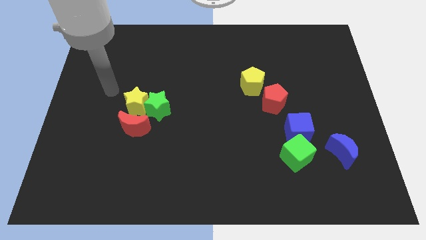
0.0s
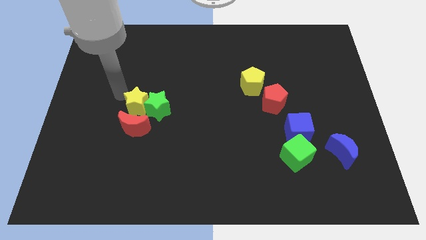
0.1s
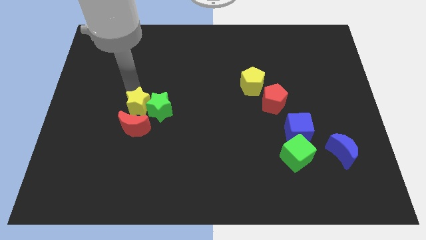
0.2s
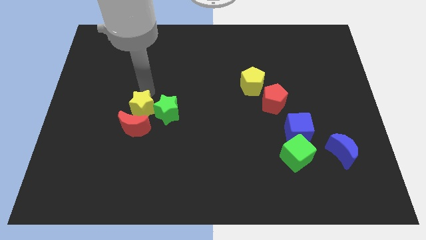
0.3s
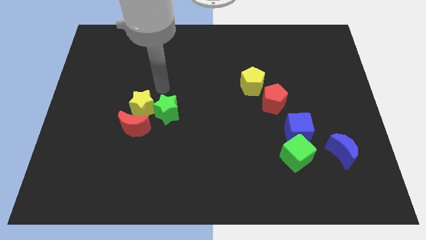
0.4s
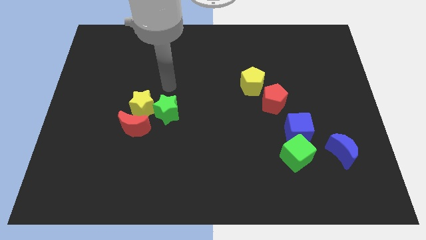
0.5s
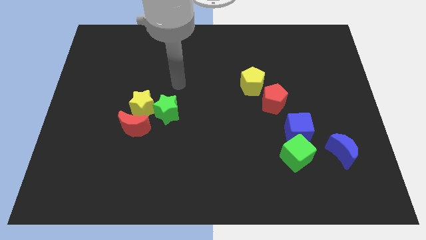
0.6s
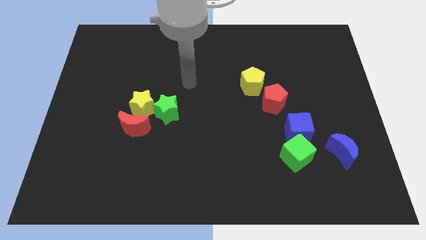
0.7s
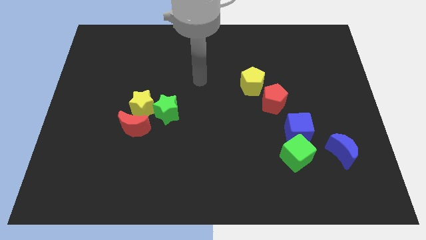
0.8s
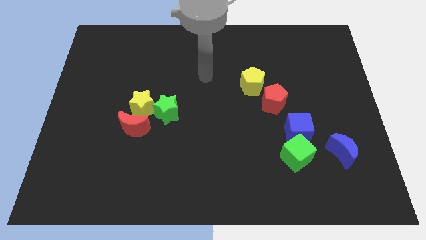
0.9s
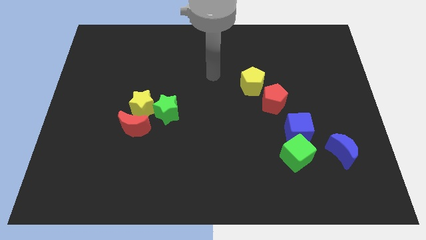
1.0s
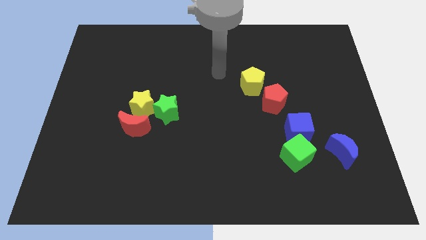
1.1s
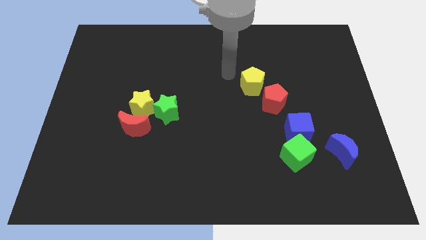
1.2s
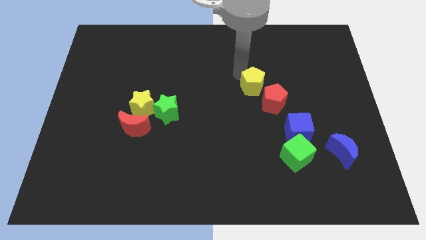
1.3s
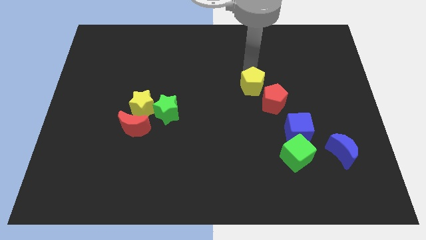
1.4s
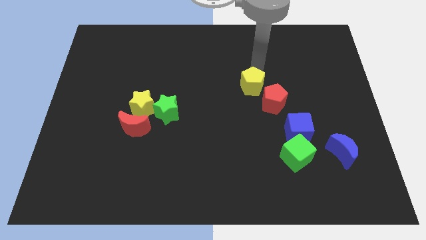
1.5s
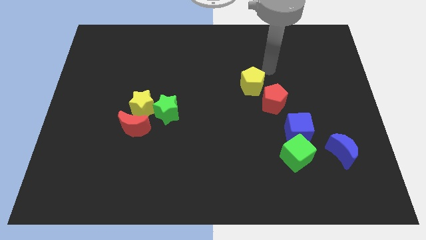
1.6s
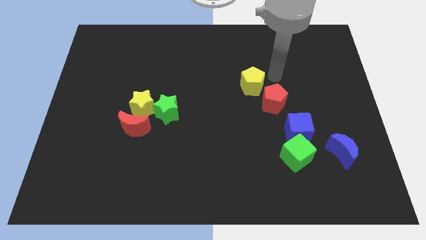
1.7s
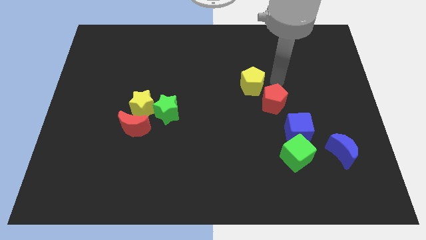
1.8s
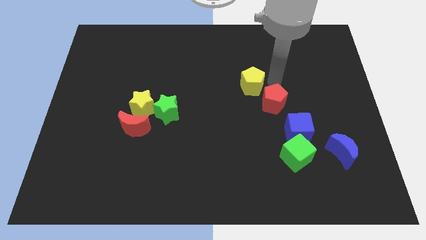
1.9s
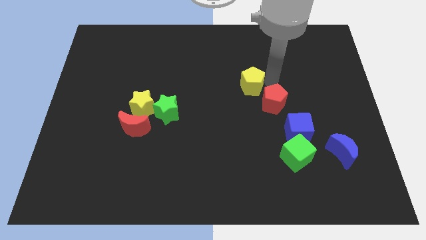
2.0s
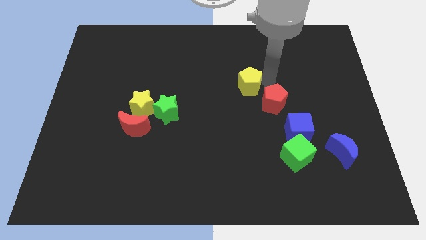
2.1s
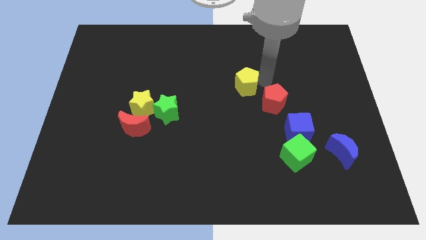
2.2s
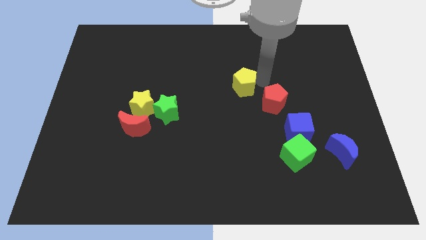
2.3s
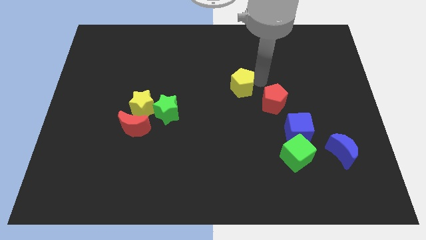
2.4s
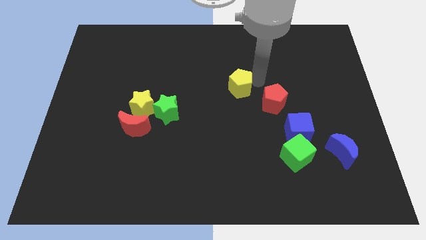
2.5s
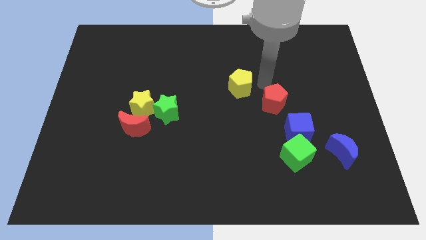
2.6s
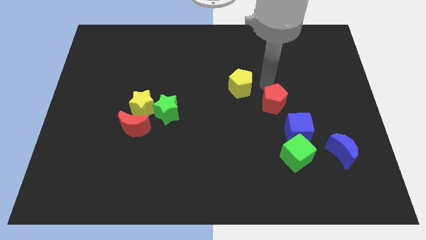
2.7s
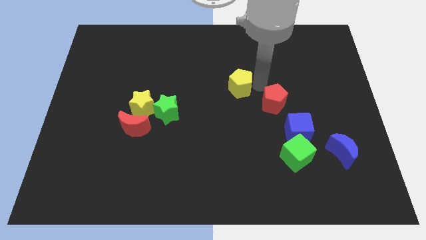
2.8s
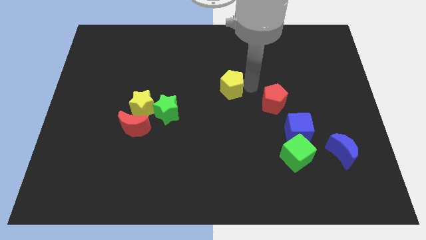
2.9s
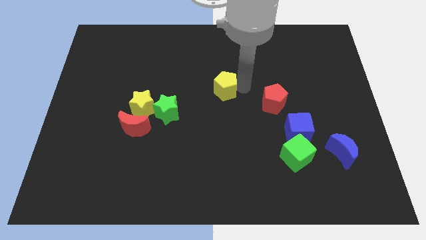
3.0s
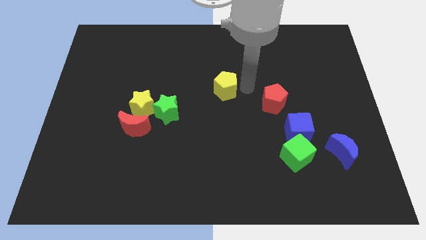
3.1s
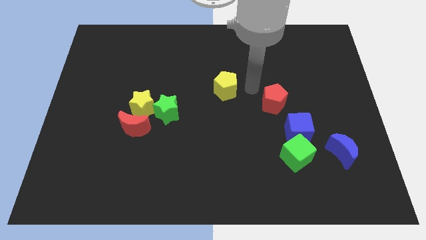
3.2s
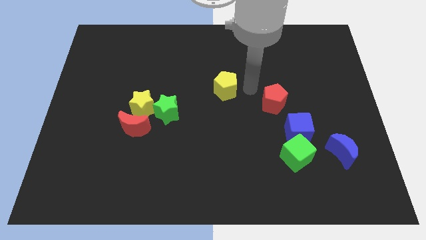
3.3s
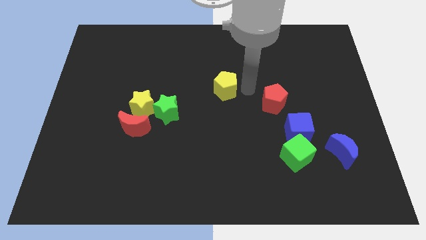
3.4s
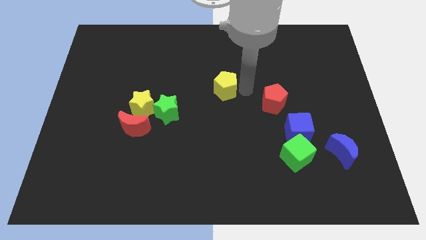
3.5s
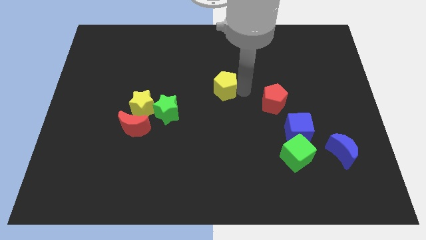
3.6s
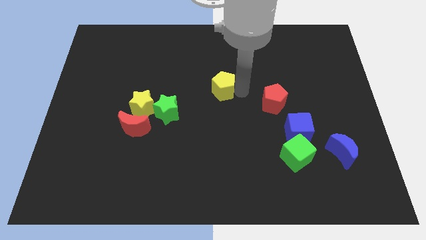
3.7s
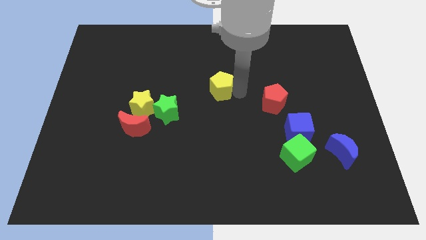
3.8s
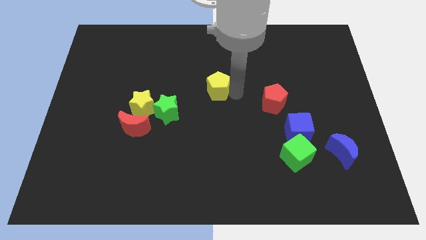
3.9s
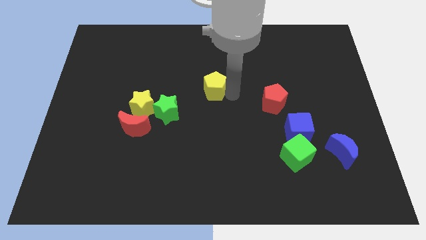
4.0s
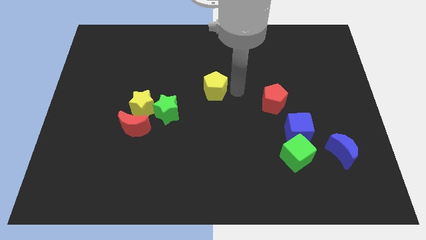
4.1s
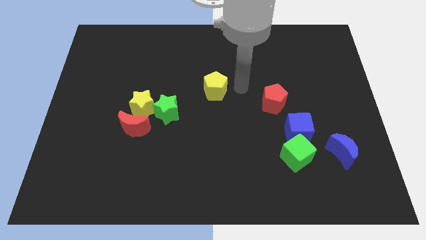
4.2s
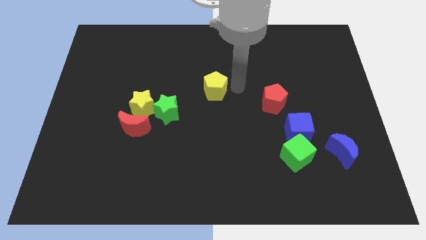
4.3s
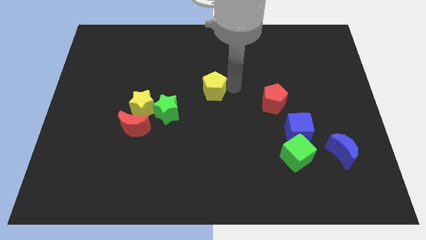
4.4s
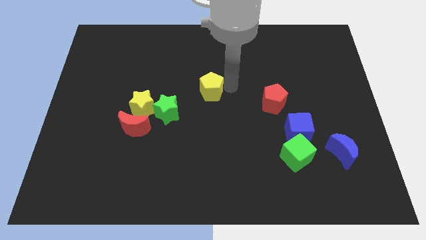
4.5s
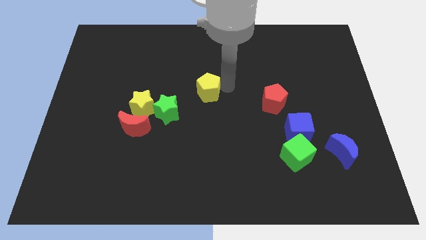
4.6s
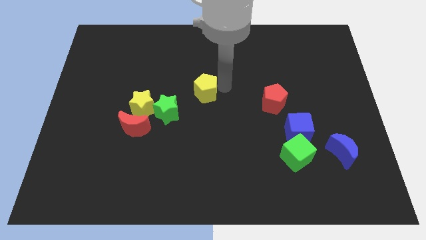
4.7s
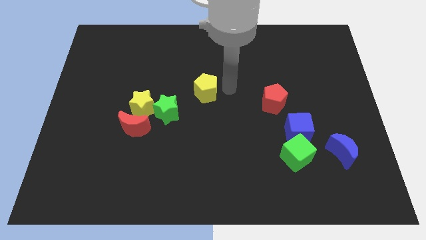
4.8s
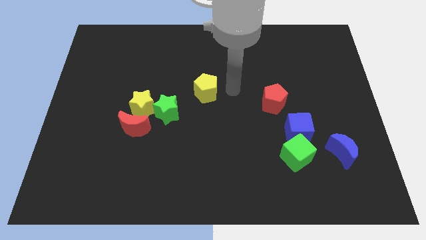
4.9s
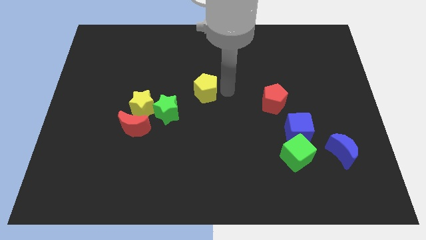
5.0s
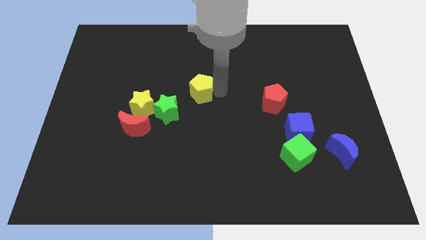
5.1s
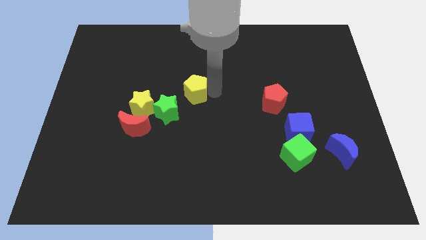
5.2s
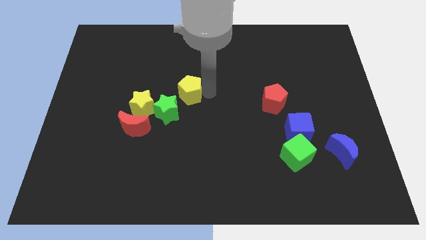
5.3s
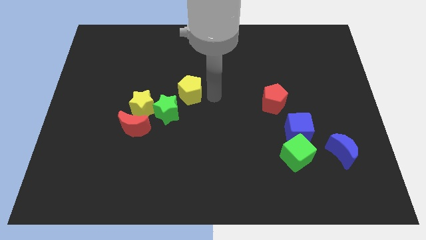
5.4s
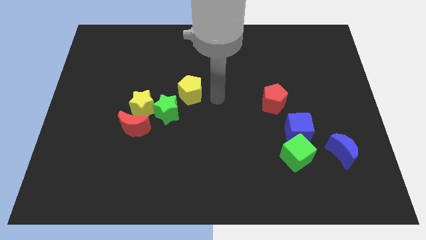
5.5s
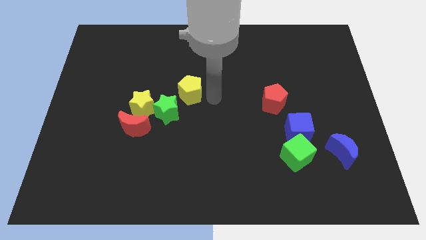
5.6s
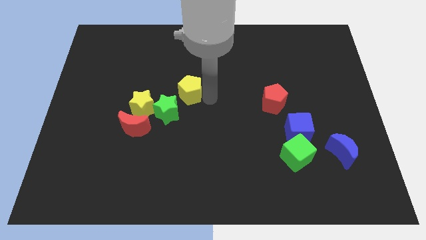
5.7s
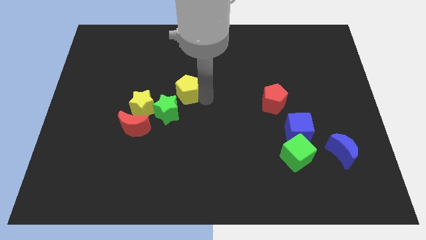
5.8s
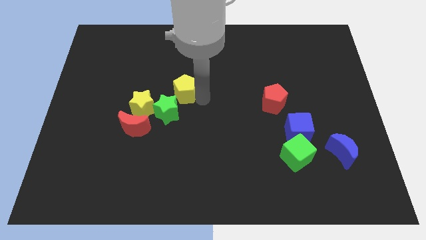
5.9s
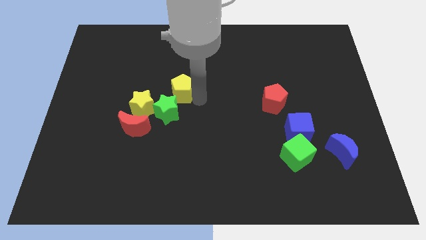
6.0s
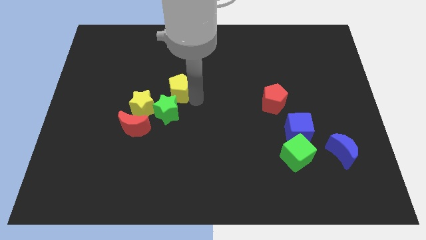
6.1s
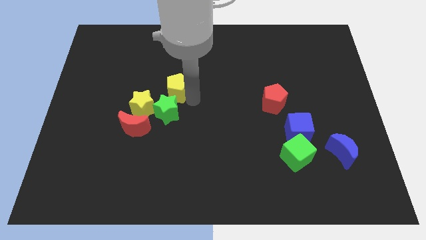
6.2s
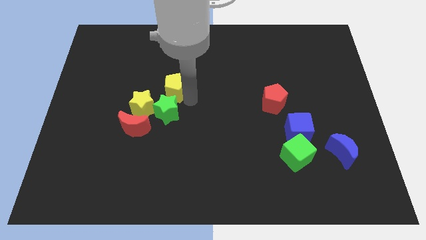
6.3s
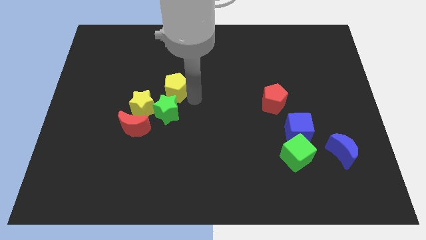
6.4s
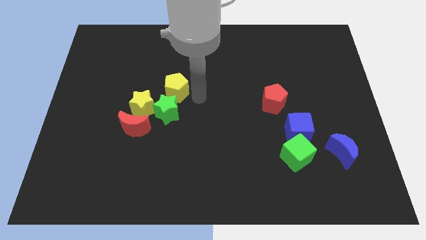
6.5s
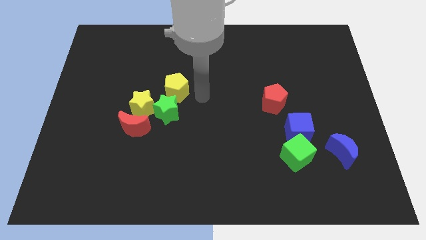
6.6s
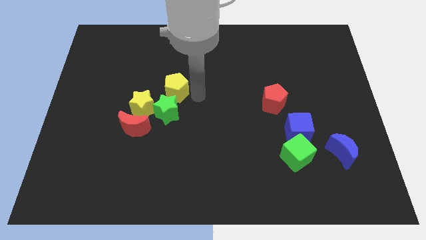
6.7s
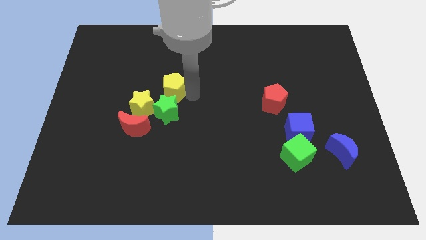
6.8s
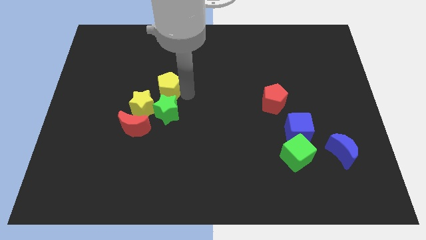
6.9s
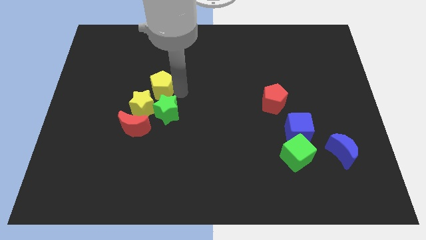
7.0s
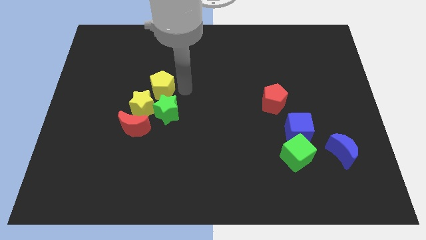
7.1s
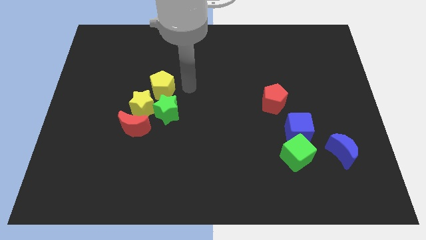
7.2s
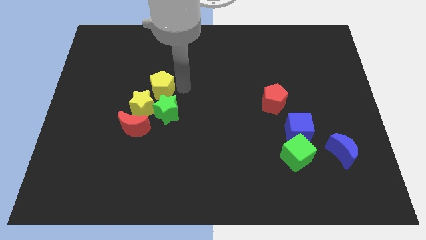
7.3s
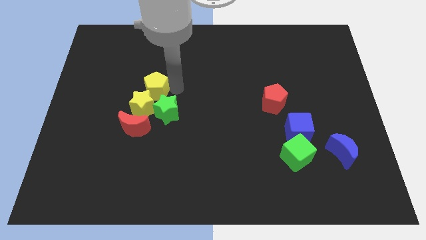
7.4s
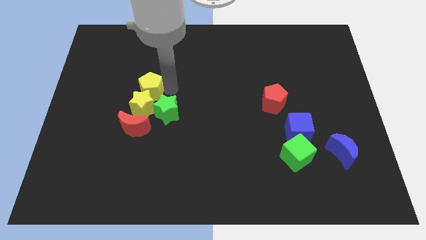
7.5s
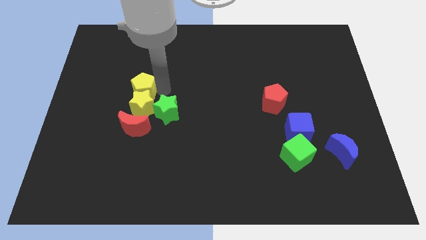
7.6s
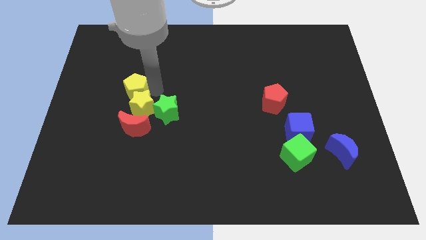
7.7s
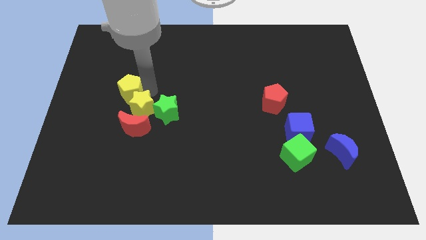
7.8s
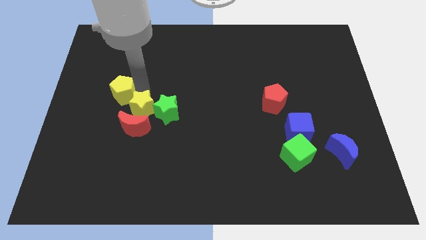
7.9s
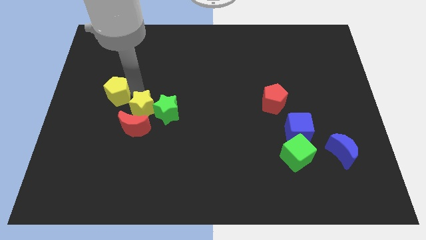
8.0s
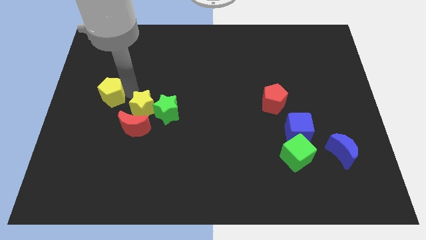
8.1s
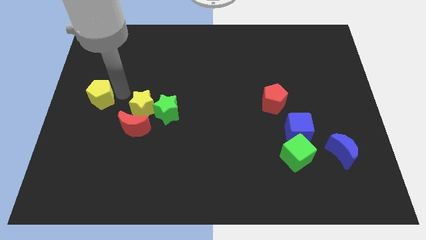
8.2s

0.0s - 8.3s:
move the yellow pentagon to the left side of the board
